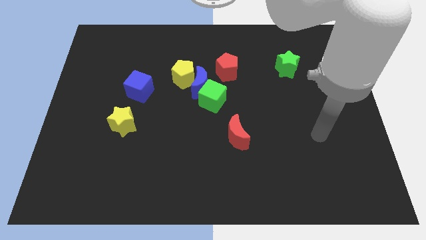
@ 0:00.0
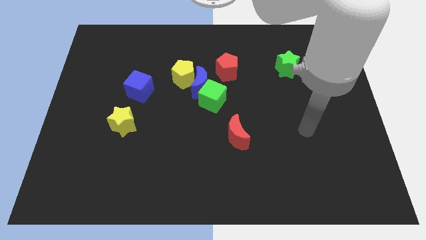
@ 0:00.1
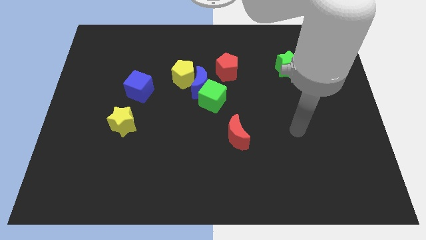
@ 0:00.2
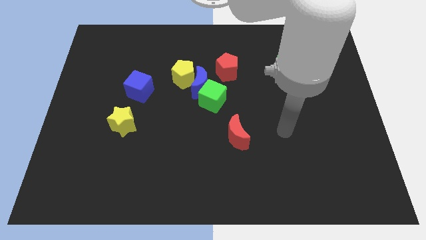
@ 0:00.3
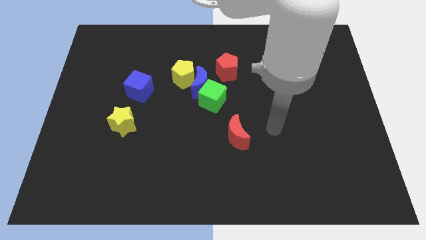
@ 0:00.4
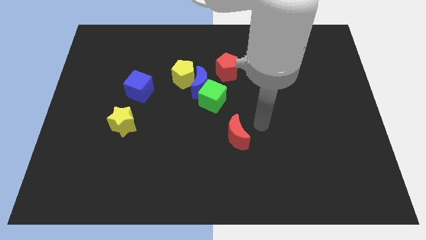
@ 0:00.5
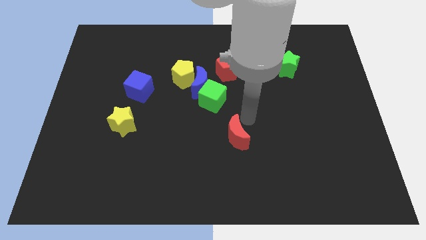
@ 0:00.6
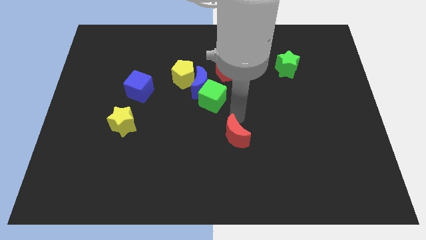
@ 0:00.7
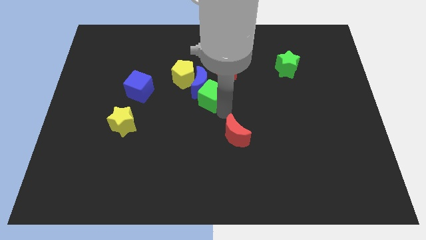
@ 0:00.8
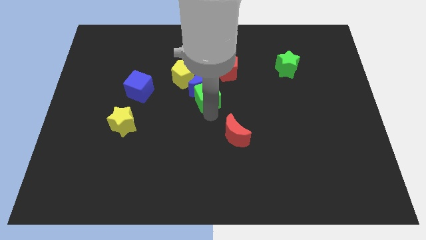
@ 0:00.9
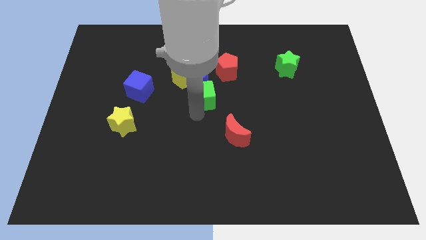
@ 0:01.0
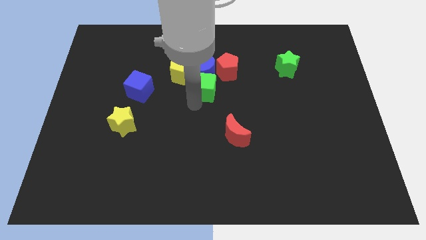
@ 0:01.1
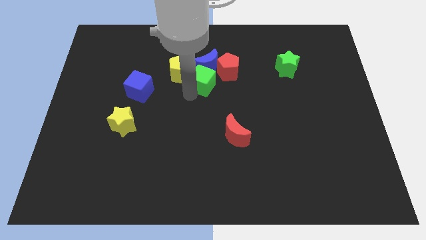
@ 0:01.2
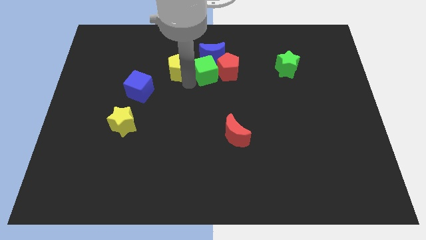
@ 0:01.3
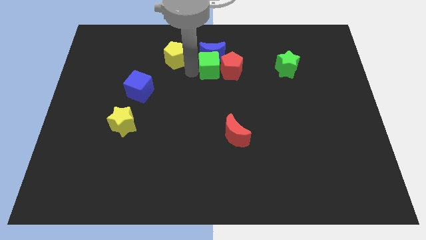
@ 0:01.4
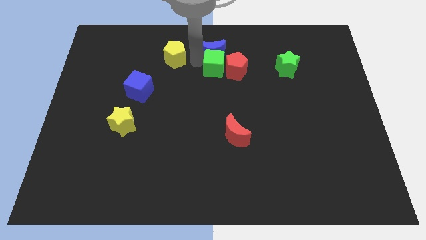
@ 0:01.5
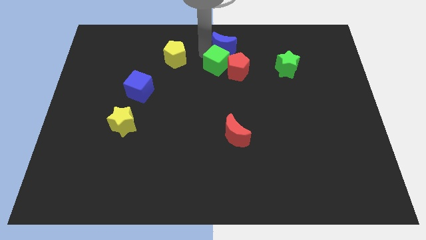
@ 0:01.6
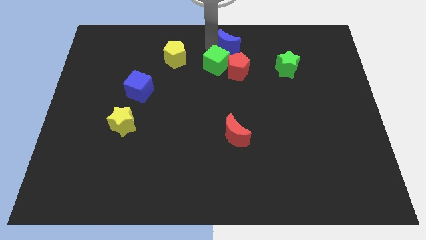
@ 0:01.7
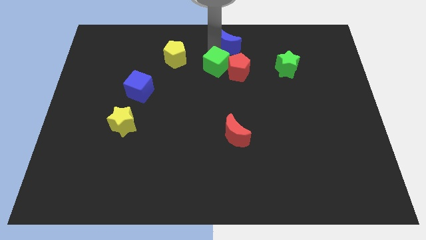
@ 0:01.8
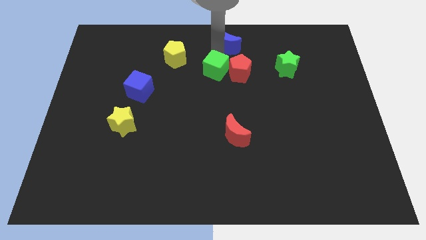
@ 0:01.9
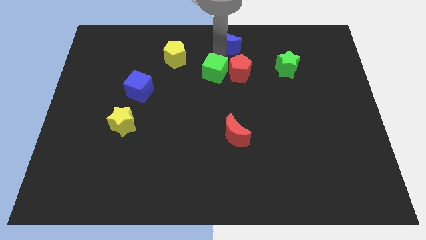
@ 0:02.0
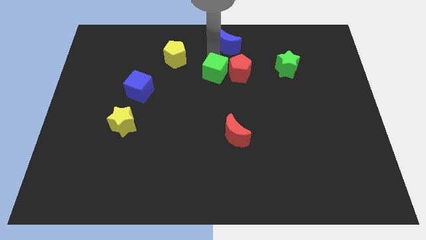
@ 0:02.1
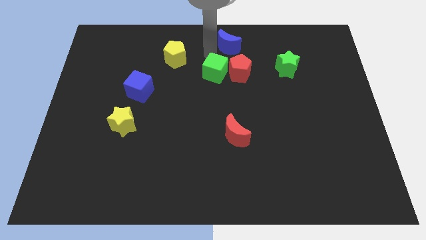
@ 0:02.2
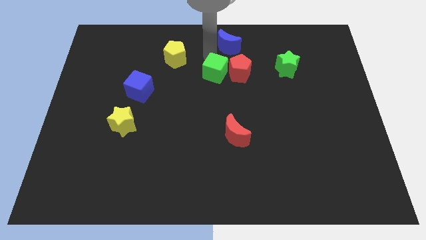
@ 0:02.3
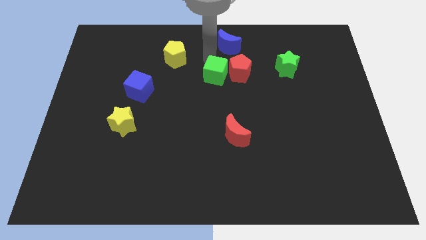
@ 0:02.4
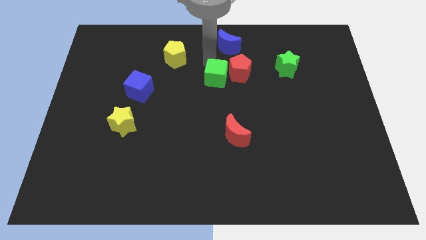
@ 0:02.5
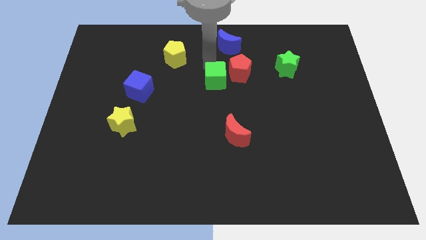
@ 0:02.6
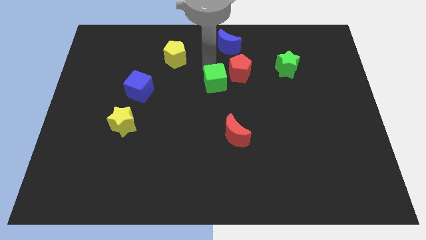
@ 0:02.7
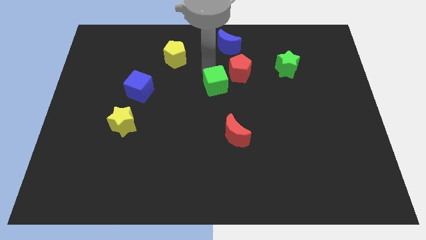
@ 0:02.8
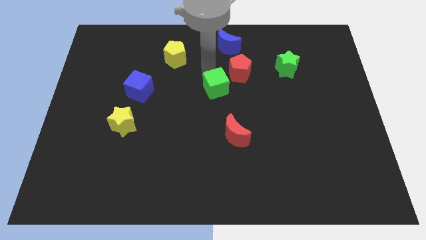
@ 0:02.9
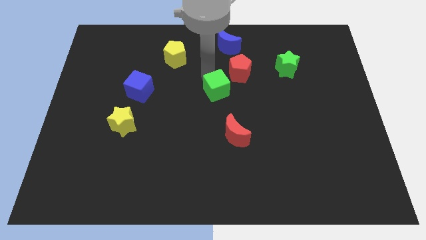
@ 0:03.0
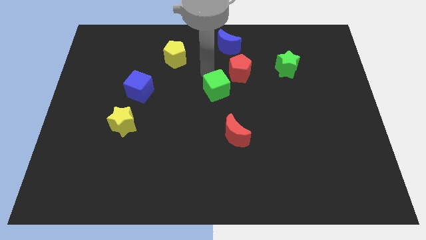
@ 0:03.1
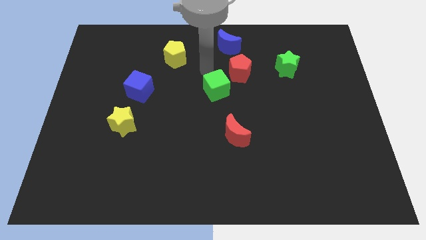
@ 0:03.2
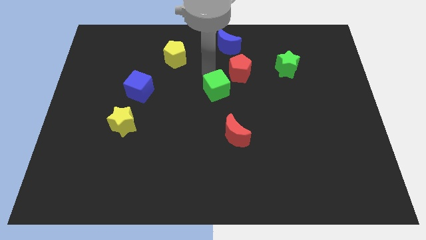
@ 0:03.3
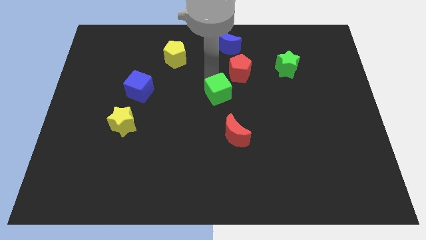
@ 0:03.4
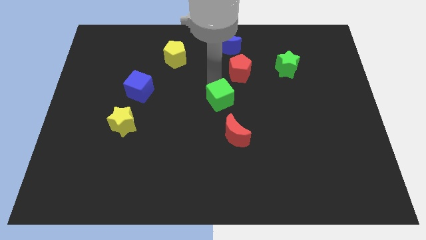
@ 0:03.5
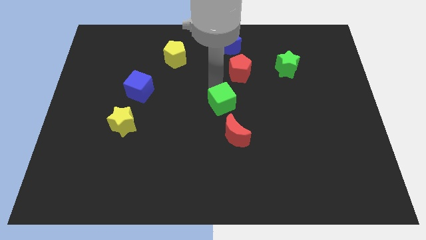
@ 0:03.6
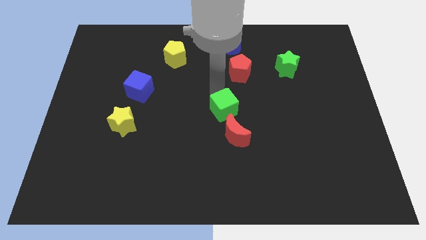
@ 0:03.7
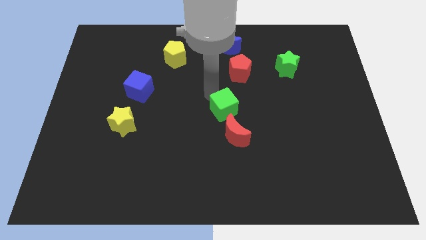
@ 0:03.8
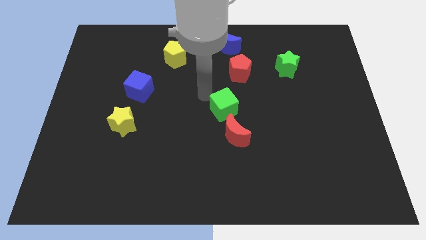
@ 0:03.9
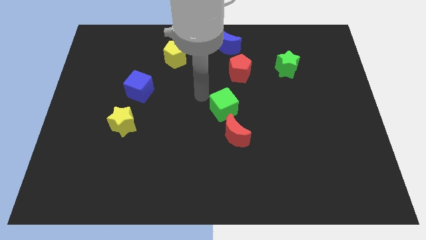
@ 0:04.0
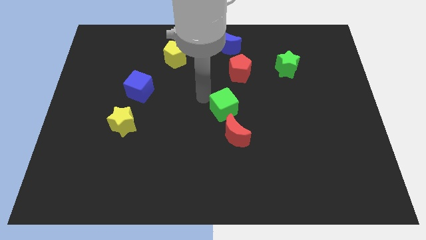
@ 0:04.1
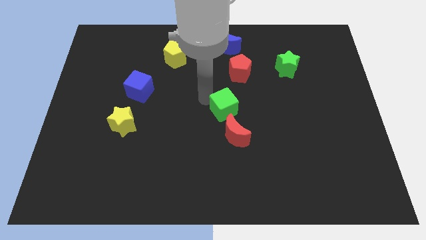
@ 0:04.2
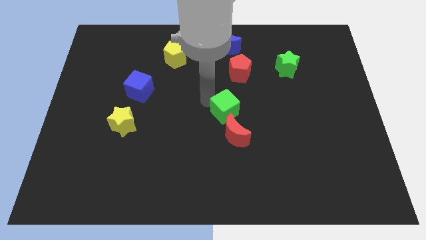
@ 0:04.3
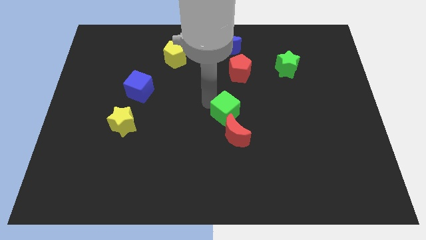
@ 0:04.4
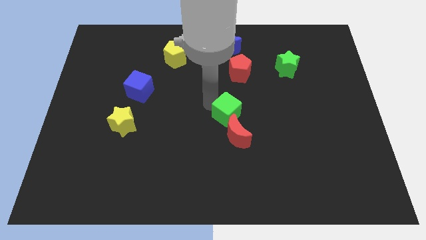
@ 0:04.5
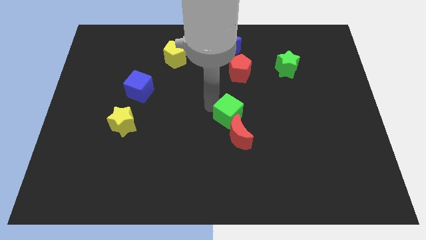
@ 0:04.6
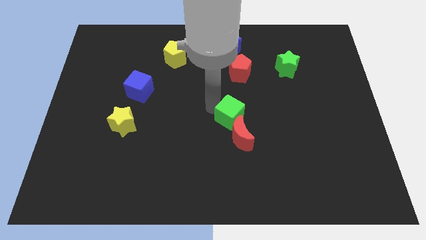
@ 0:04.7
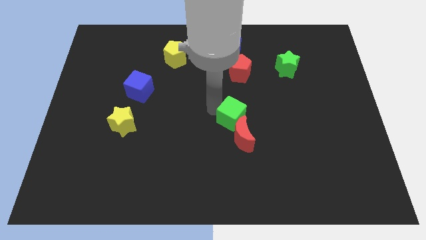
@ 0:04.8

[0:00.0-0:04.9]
move the green cube a bit diagonally downwards and right

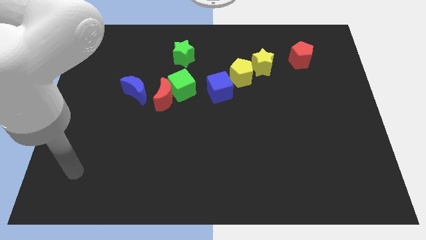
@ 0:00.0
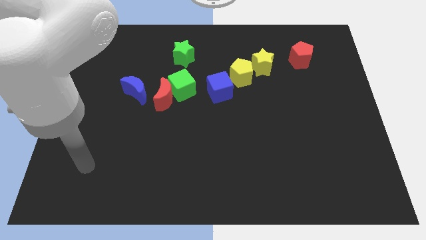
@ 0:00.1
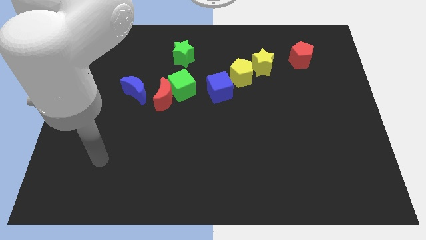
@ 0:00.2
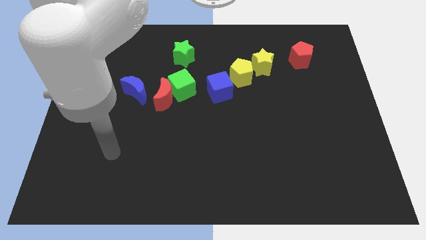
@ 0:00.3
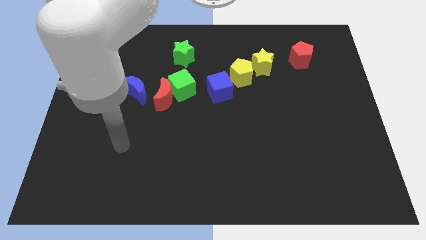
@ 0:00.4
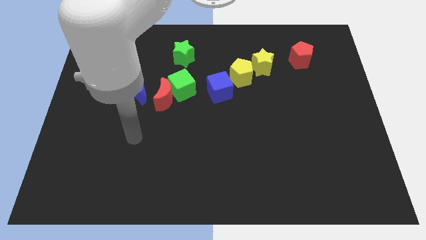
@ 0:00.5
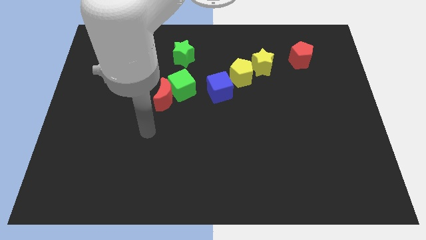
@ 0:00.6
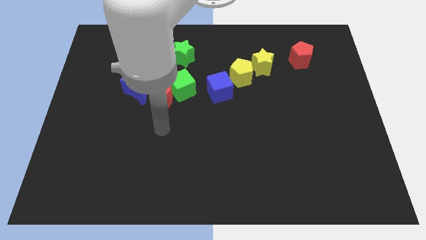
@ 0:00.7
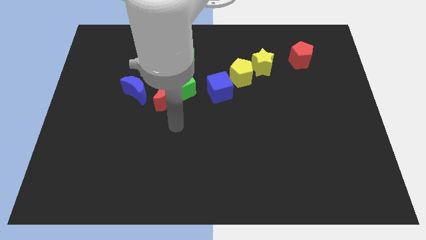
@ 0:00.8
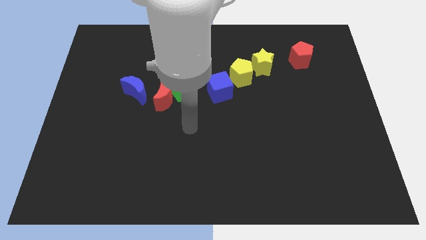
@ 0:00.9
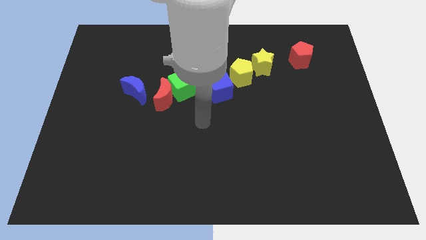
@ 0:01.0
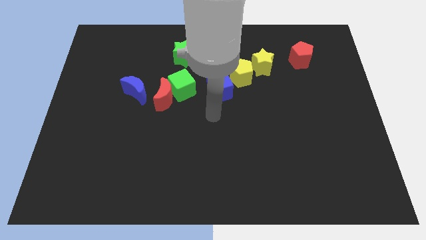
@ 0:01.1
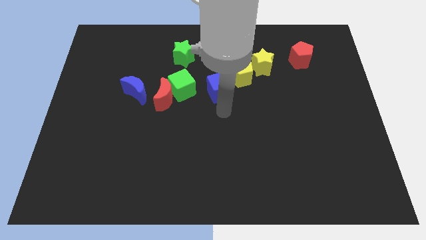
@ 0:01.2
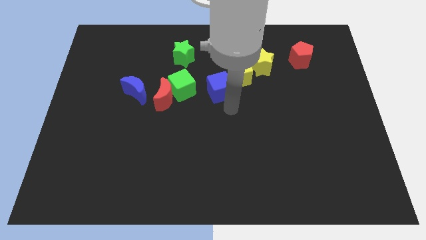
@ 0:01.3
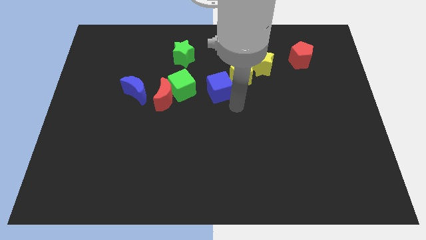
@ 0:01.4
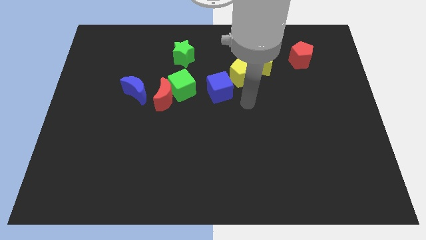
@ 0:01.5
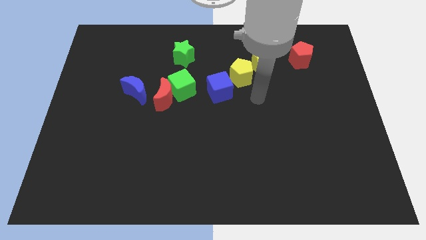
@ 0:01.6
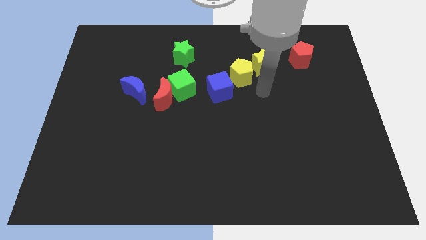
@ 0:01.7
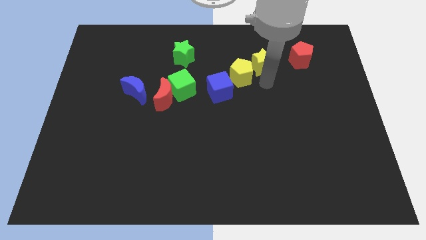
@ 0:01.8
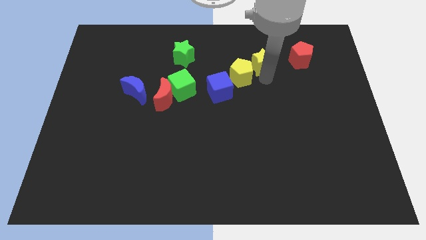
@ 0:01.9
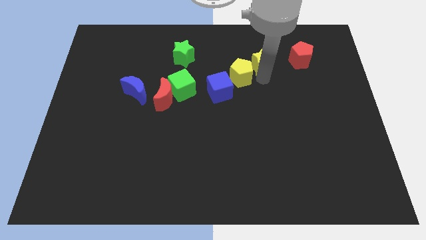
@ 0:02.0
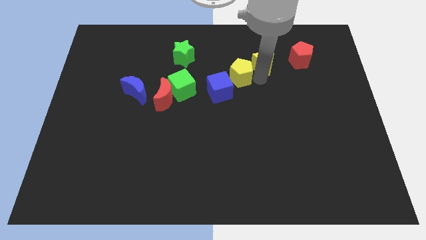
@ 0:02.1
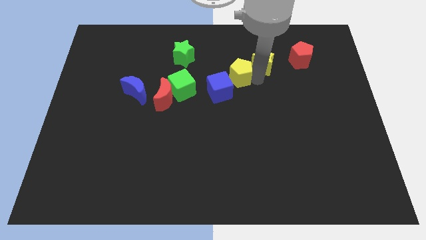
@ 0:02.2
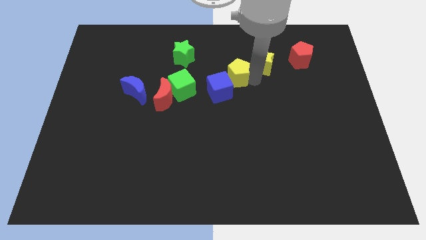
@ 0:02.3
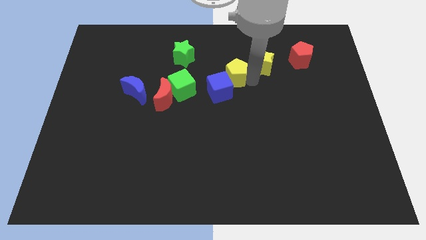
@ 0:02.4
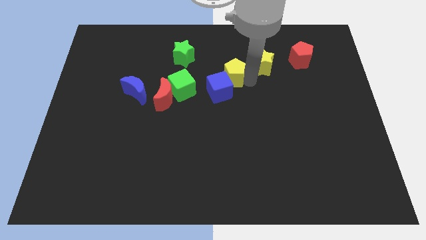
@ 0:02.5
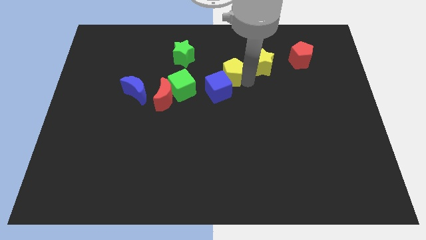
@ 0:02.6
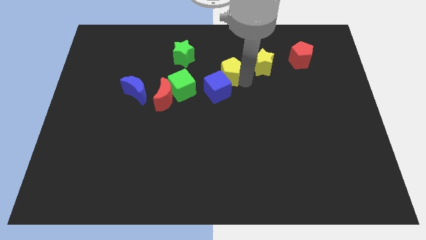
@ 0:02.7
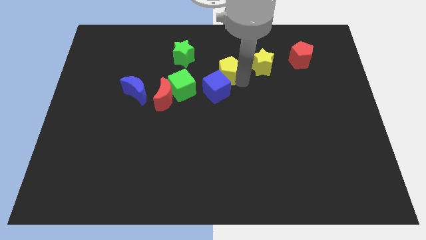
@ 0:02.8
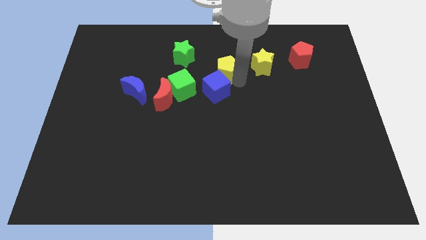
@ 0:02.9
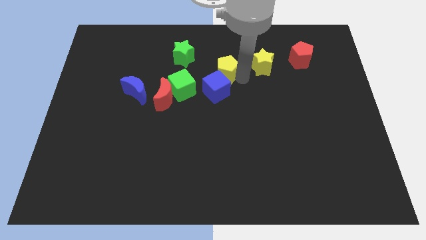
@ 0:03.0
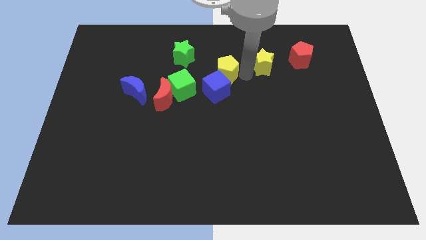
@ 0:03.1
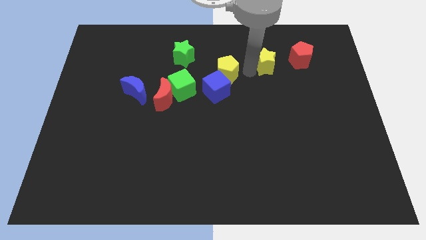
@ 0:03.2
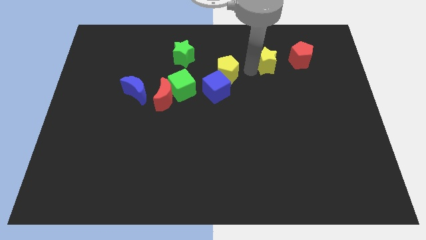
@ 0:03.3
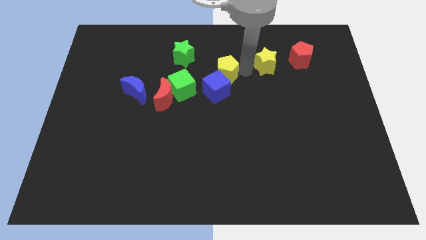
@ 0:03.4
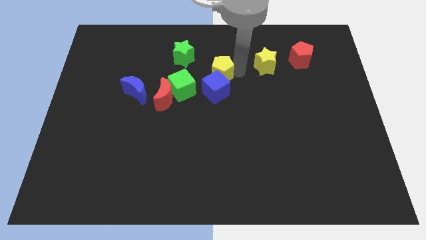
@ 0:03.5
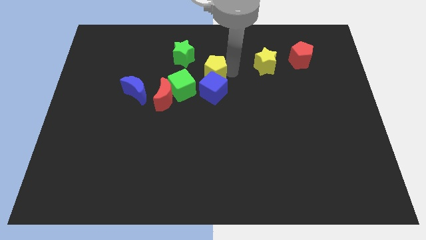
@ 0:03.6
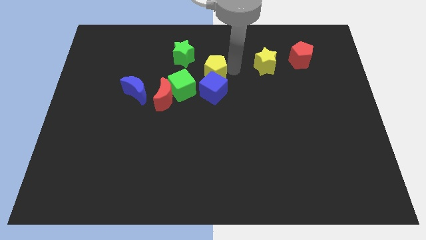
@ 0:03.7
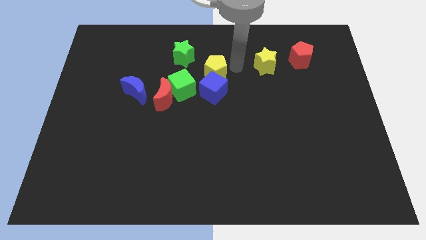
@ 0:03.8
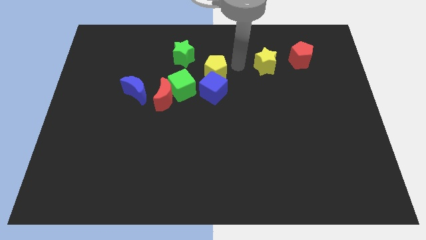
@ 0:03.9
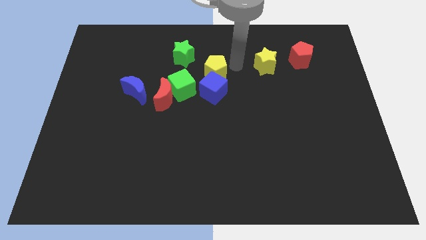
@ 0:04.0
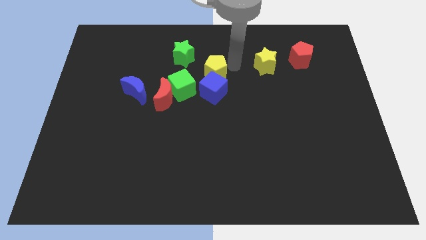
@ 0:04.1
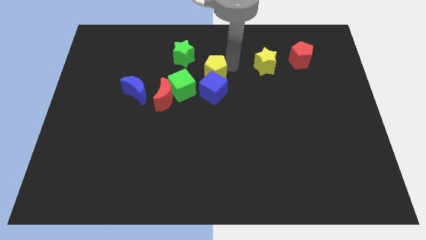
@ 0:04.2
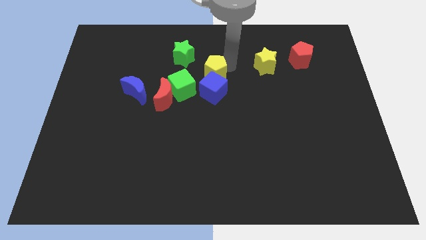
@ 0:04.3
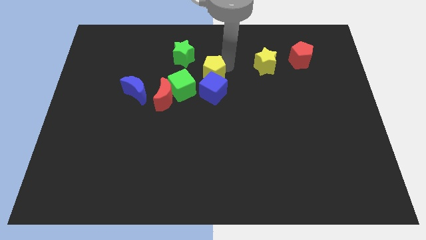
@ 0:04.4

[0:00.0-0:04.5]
slightly push the yellow pentagon to the left
